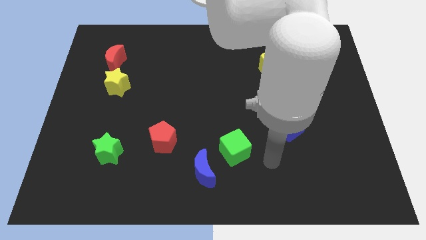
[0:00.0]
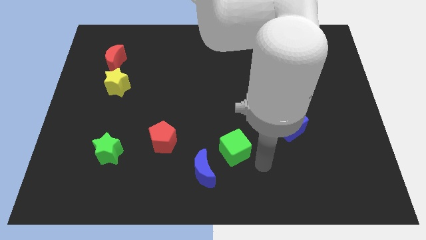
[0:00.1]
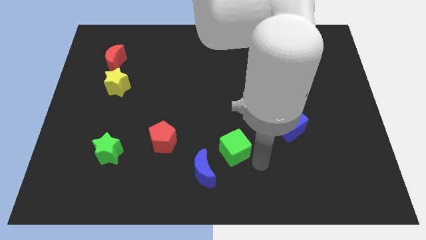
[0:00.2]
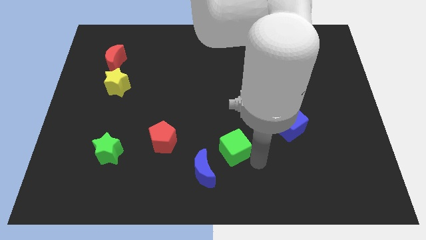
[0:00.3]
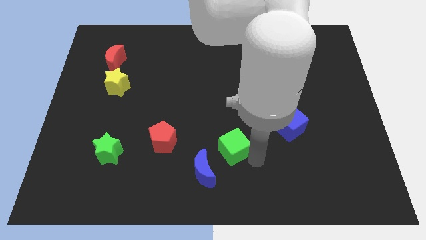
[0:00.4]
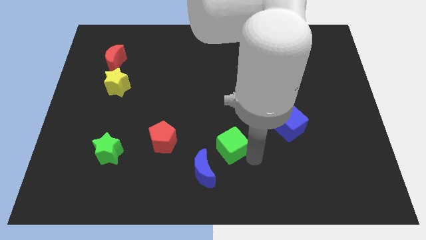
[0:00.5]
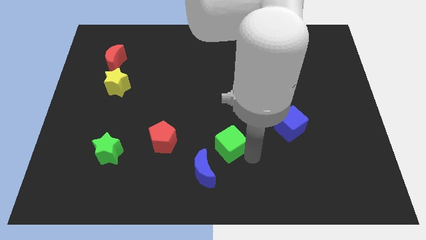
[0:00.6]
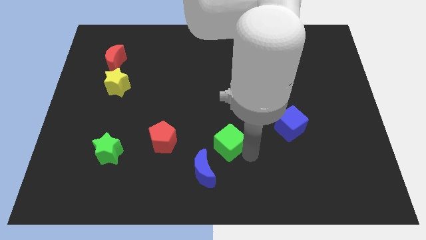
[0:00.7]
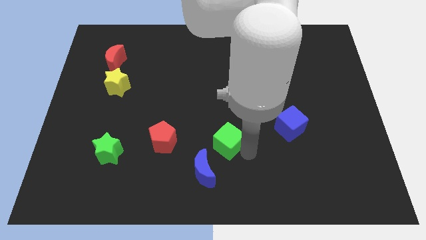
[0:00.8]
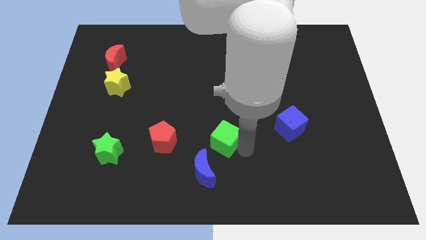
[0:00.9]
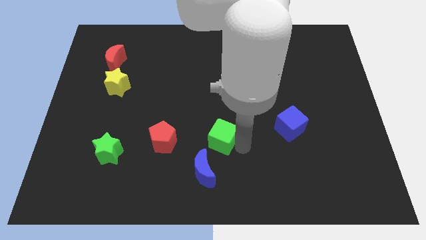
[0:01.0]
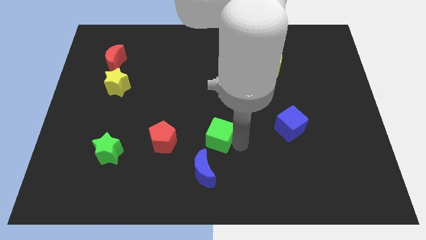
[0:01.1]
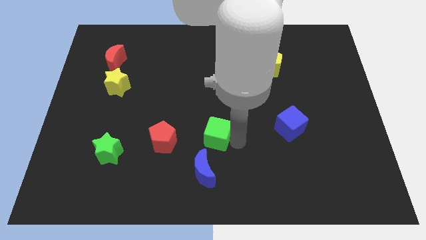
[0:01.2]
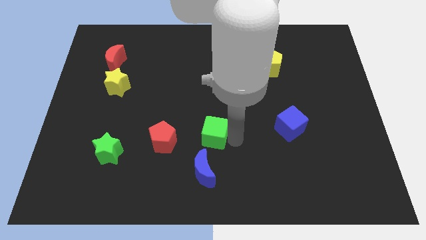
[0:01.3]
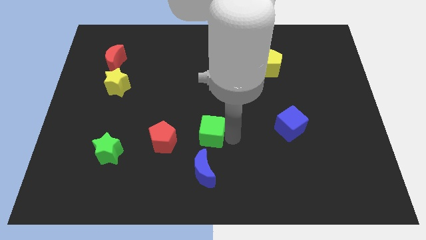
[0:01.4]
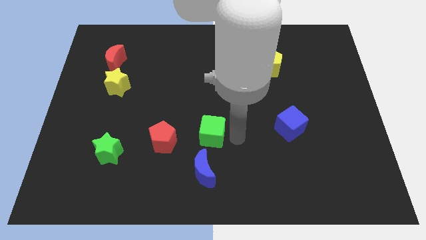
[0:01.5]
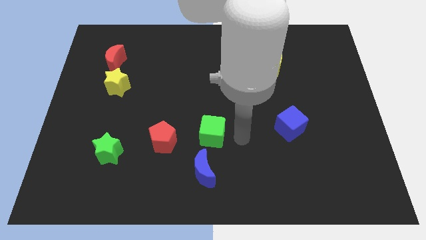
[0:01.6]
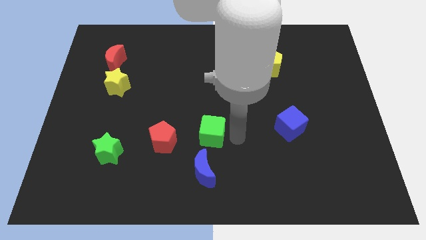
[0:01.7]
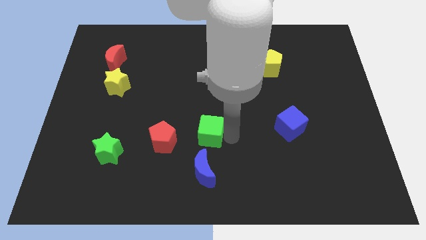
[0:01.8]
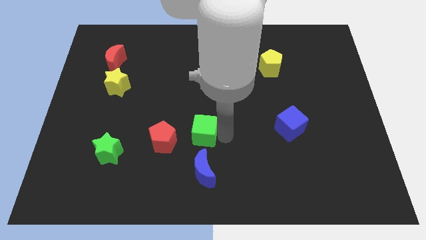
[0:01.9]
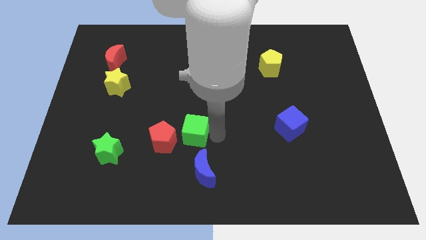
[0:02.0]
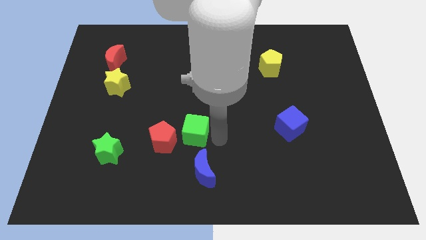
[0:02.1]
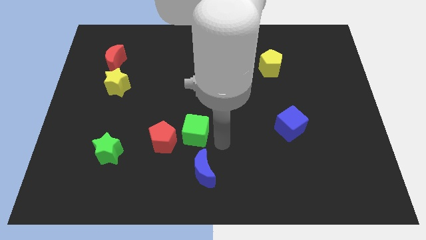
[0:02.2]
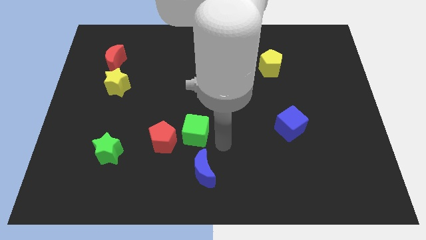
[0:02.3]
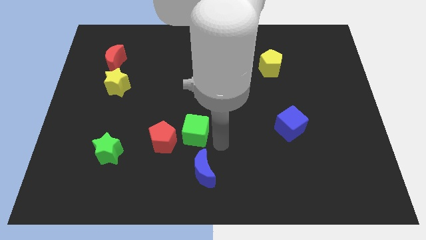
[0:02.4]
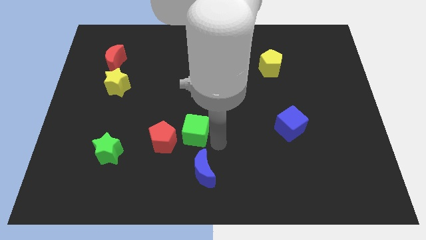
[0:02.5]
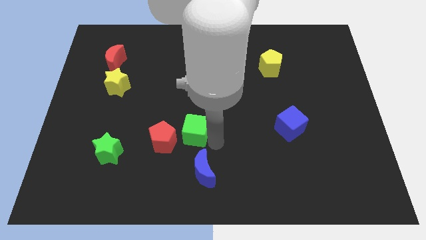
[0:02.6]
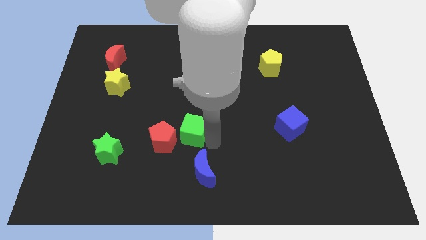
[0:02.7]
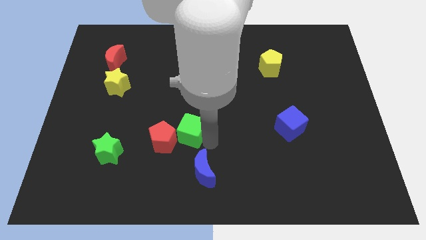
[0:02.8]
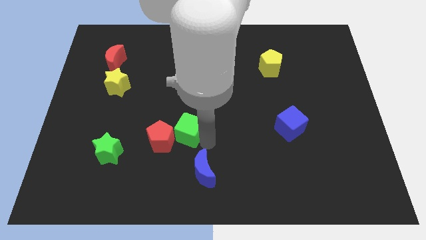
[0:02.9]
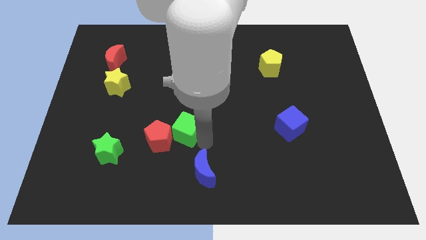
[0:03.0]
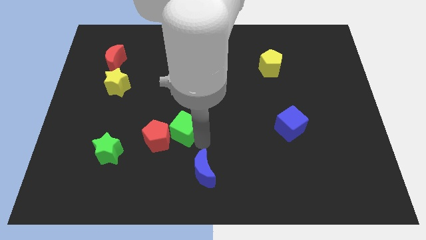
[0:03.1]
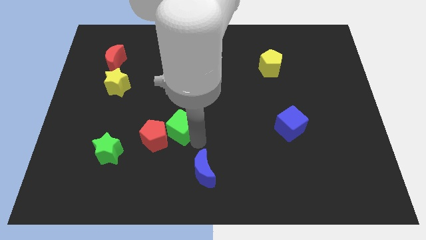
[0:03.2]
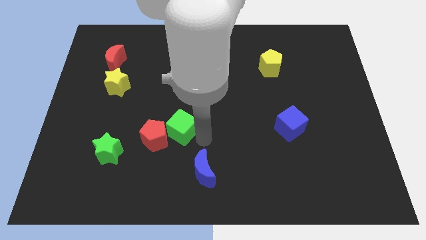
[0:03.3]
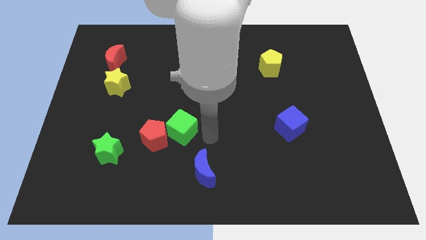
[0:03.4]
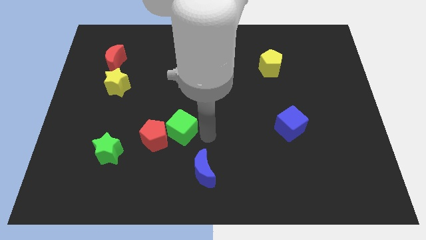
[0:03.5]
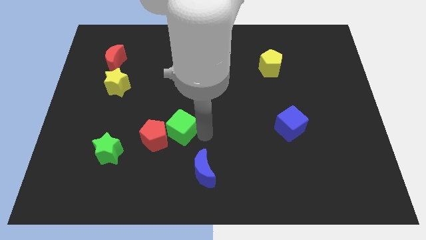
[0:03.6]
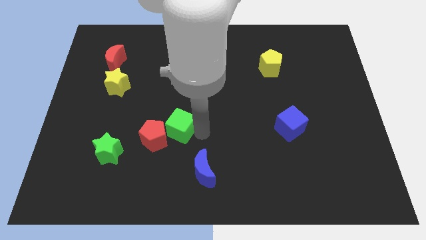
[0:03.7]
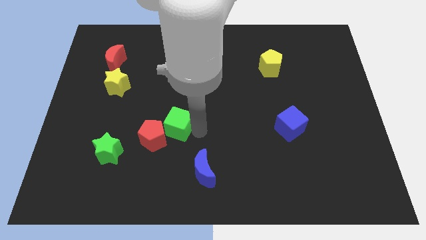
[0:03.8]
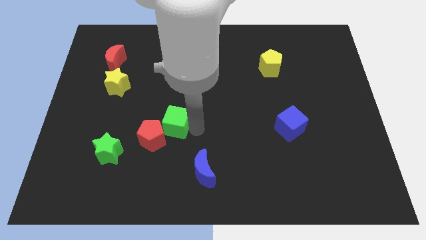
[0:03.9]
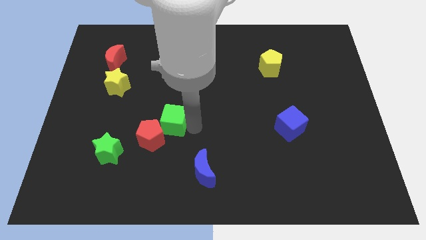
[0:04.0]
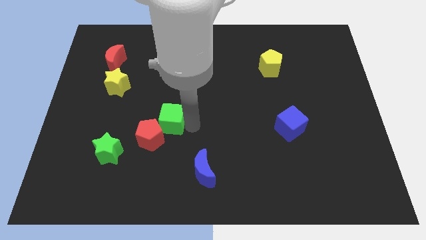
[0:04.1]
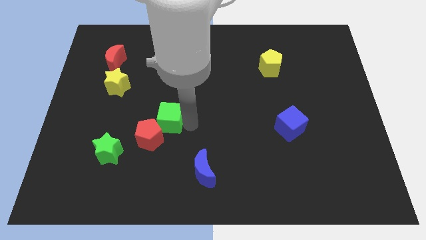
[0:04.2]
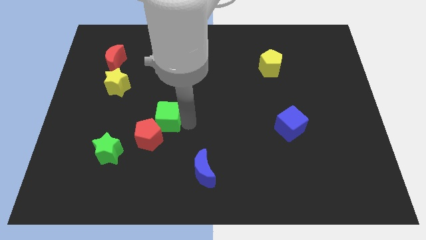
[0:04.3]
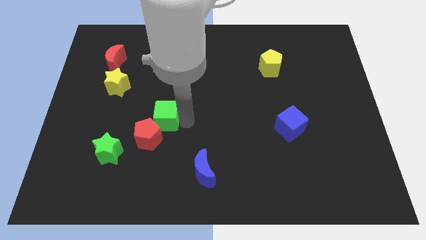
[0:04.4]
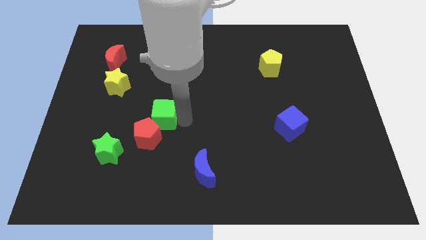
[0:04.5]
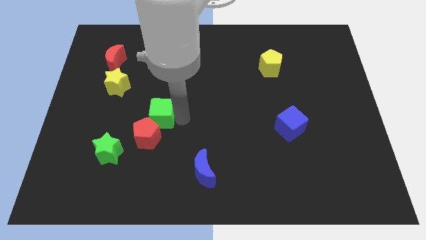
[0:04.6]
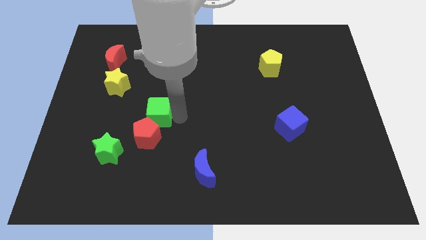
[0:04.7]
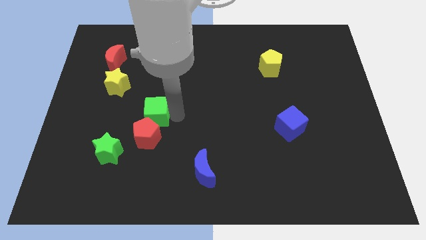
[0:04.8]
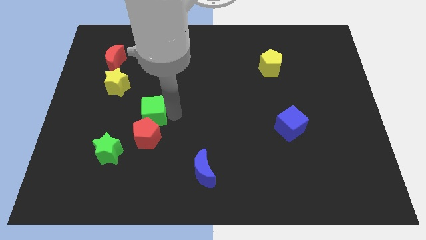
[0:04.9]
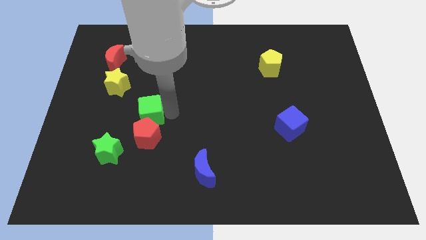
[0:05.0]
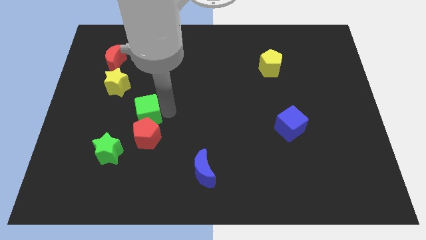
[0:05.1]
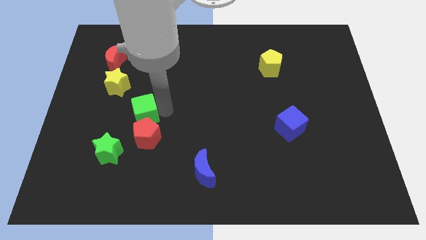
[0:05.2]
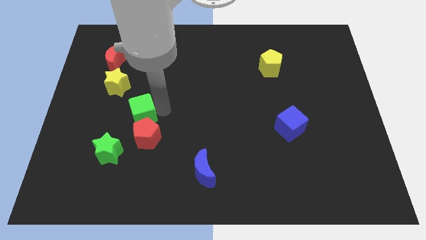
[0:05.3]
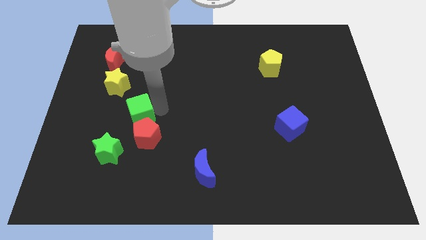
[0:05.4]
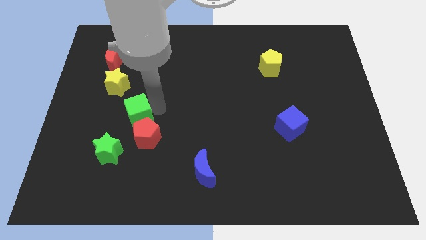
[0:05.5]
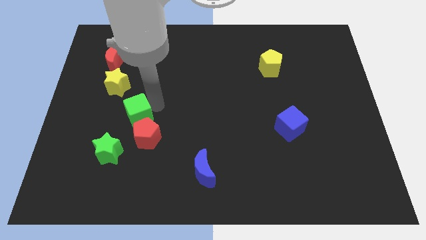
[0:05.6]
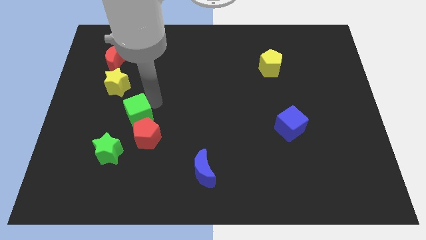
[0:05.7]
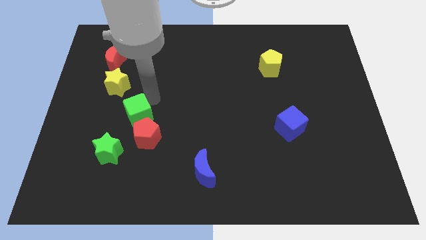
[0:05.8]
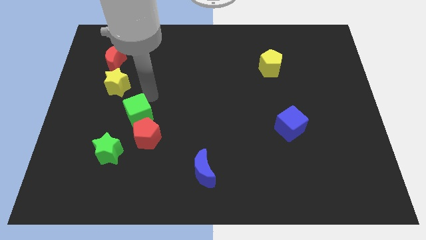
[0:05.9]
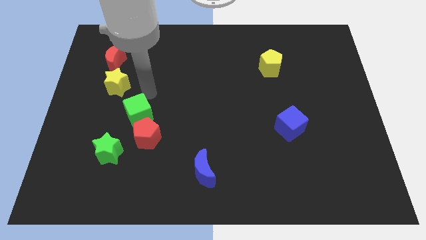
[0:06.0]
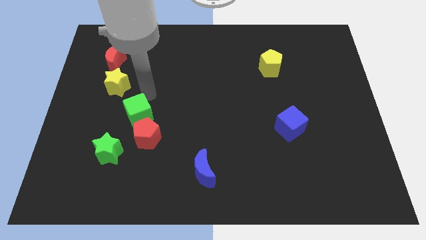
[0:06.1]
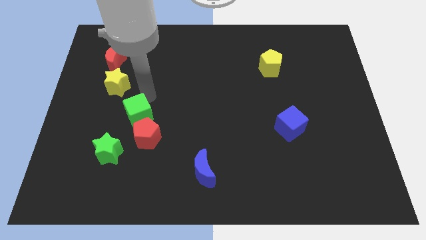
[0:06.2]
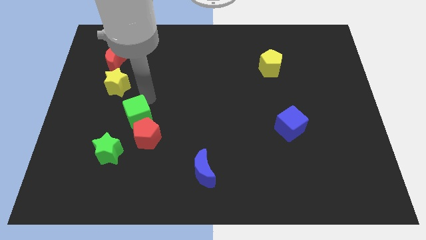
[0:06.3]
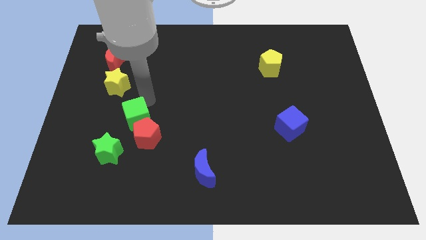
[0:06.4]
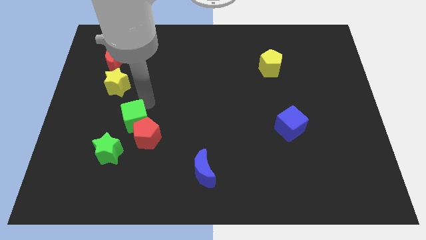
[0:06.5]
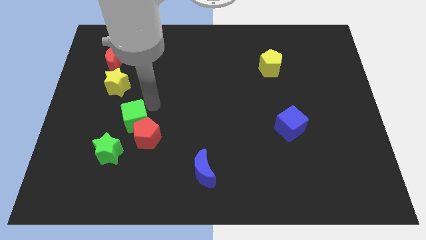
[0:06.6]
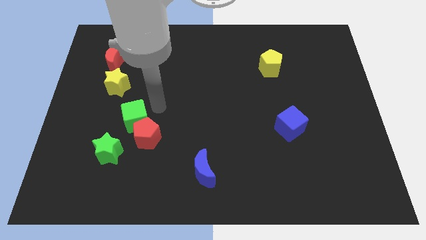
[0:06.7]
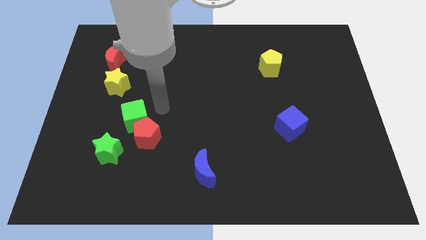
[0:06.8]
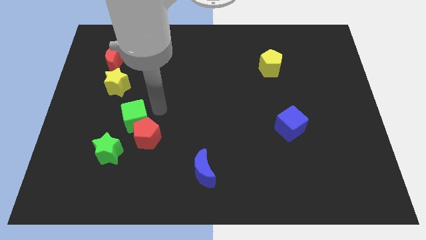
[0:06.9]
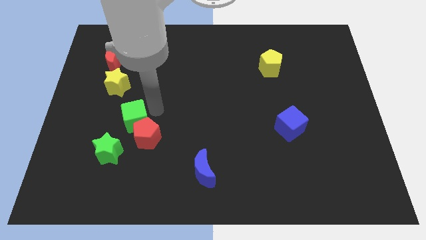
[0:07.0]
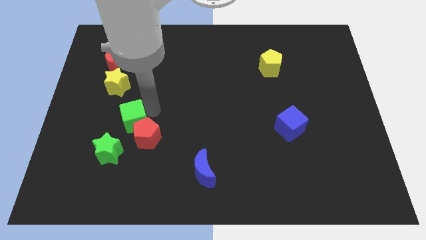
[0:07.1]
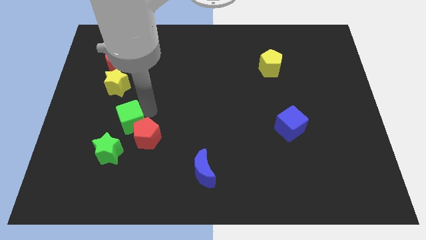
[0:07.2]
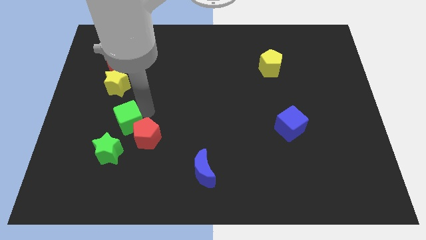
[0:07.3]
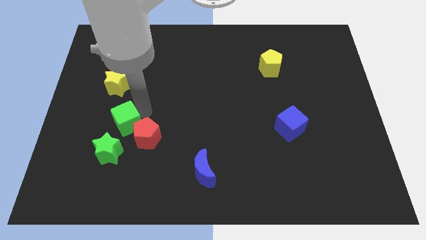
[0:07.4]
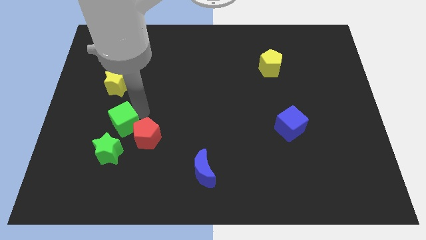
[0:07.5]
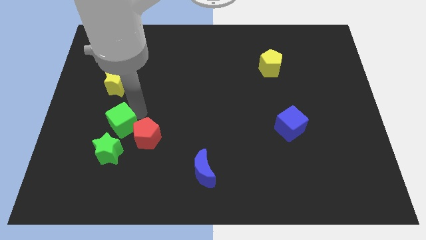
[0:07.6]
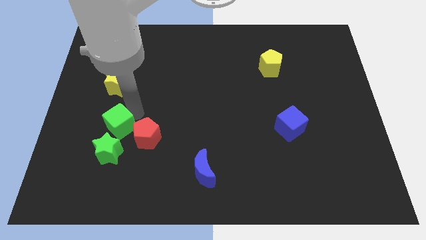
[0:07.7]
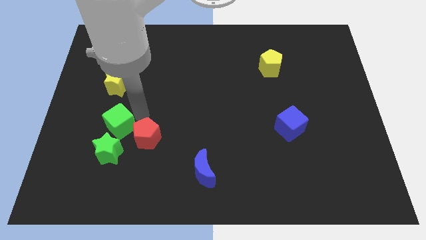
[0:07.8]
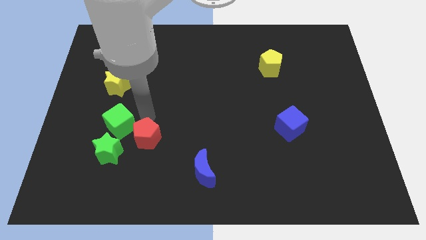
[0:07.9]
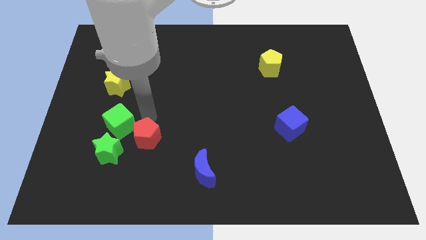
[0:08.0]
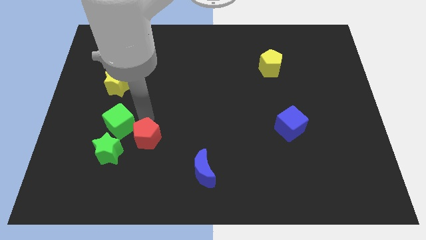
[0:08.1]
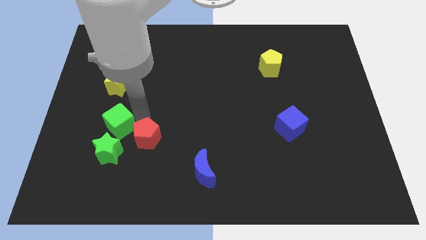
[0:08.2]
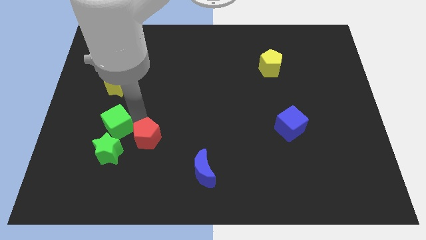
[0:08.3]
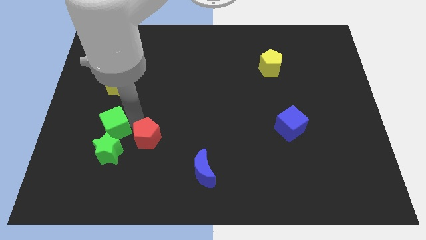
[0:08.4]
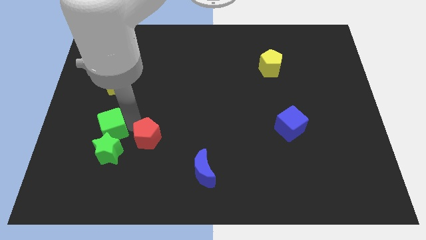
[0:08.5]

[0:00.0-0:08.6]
push the green cube to the top left side of the green star
